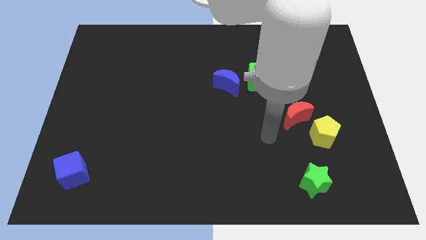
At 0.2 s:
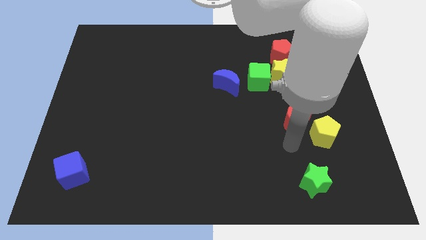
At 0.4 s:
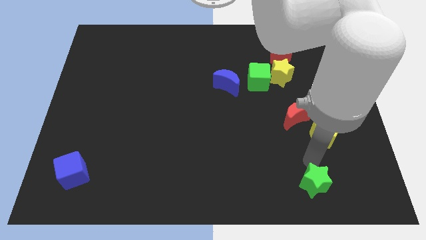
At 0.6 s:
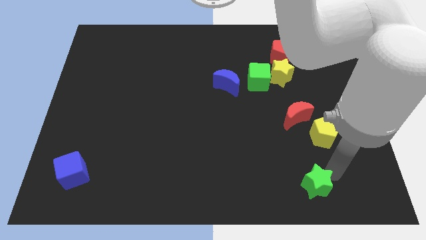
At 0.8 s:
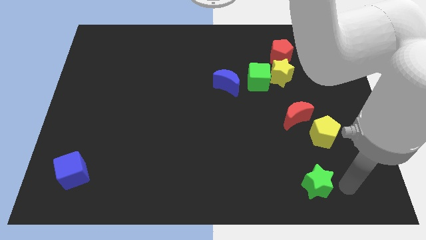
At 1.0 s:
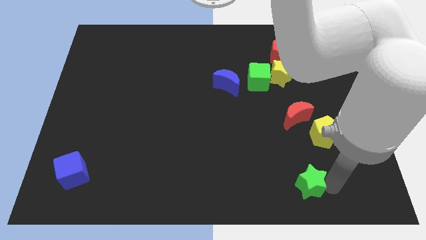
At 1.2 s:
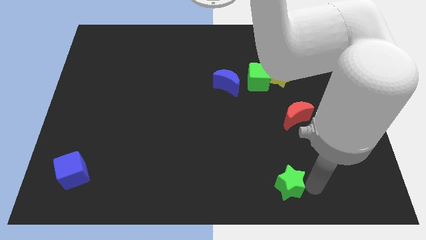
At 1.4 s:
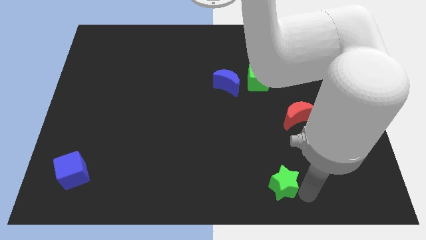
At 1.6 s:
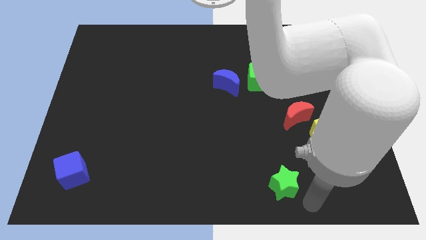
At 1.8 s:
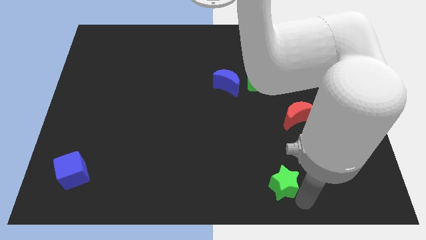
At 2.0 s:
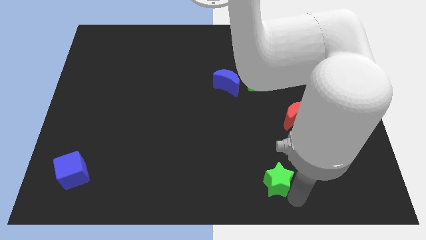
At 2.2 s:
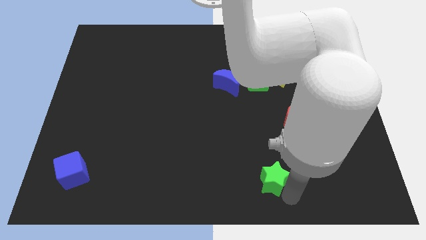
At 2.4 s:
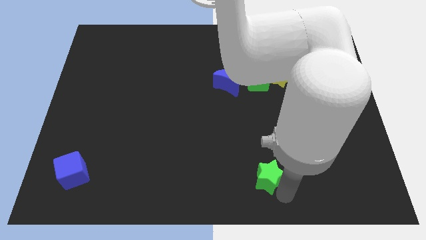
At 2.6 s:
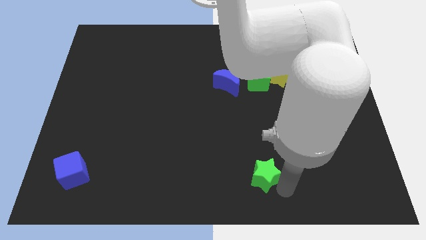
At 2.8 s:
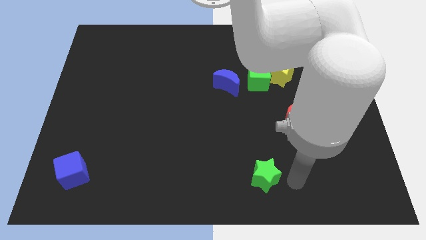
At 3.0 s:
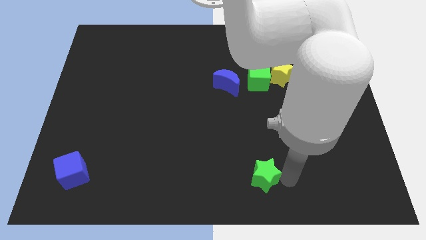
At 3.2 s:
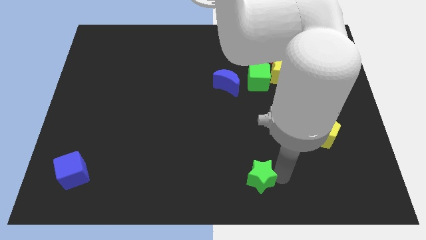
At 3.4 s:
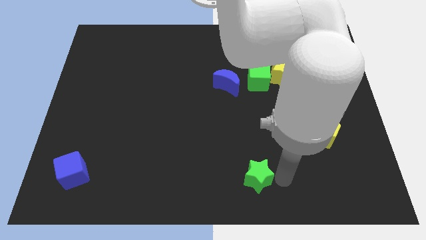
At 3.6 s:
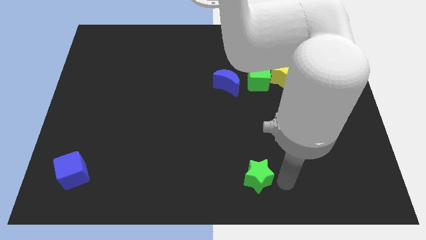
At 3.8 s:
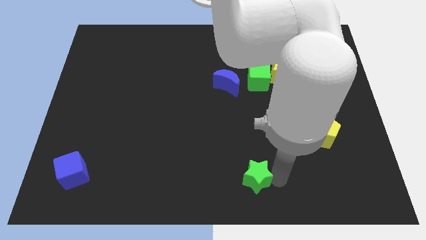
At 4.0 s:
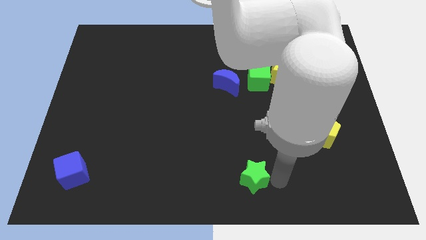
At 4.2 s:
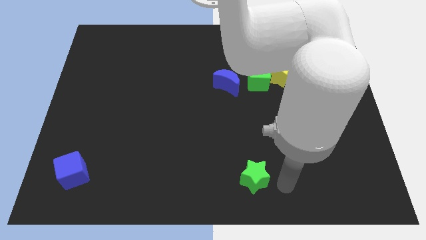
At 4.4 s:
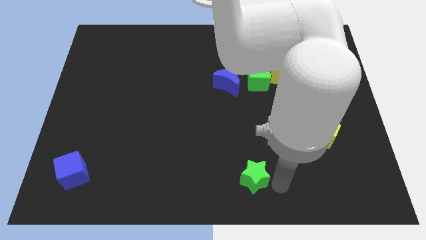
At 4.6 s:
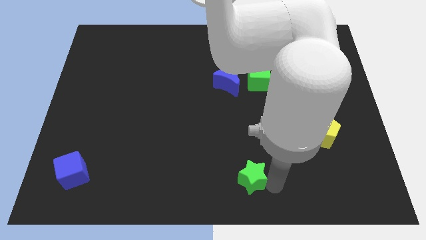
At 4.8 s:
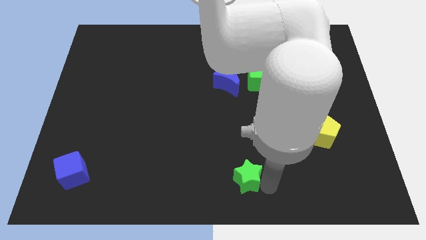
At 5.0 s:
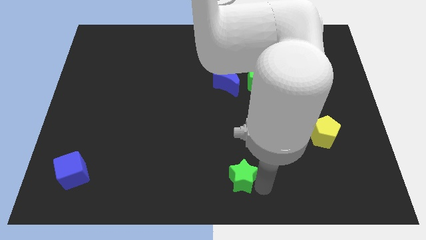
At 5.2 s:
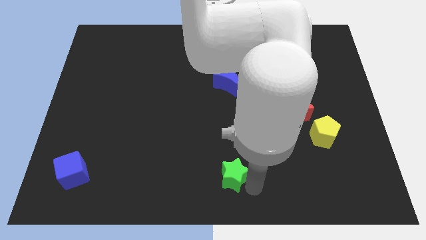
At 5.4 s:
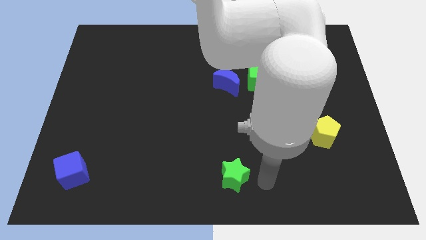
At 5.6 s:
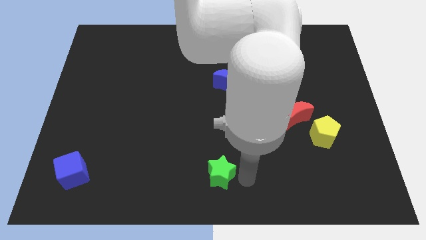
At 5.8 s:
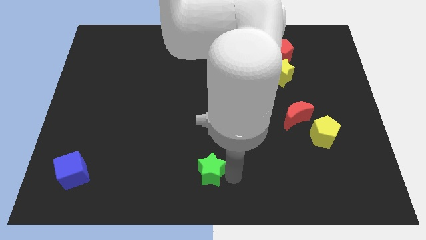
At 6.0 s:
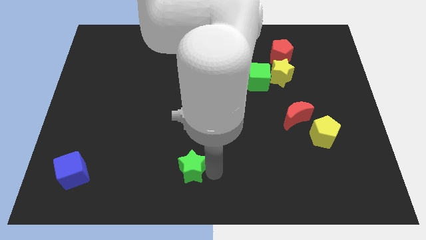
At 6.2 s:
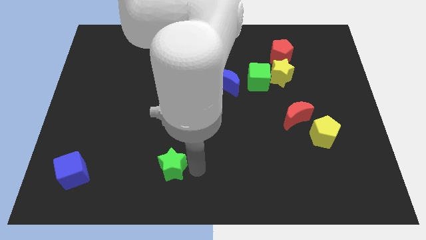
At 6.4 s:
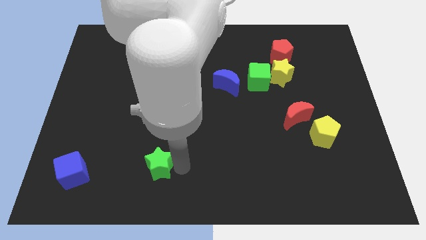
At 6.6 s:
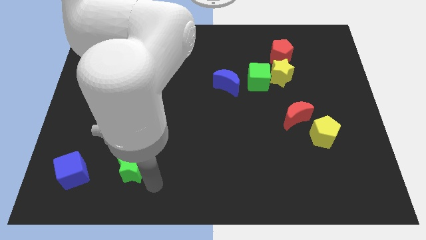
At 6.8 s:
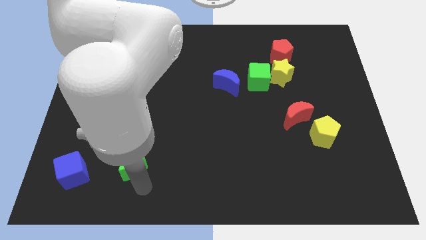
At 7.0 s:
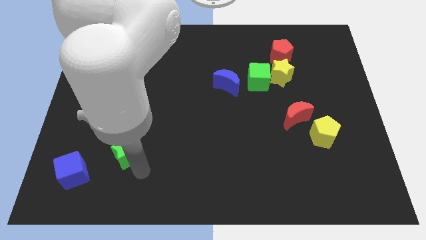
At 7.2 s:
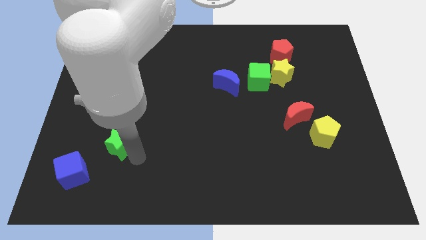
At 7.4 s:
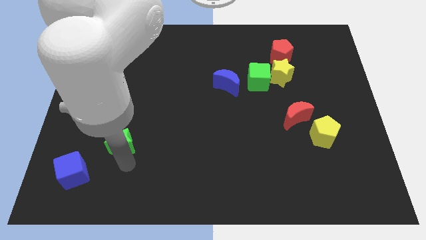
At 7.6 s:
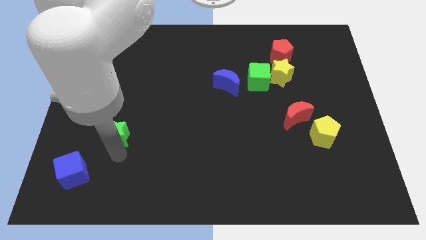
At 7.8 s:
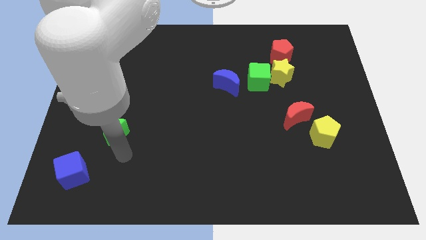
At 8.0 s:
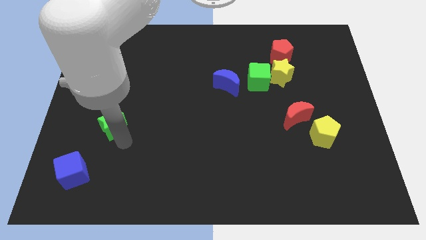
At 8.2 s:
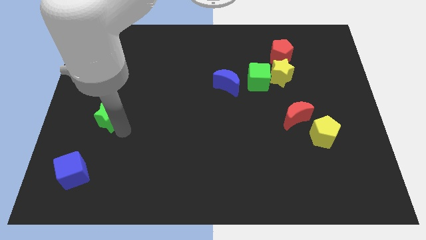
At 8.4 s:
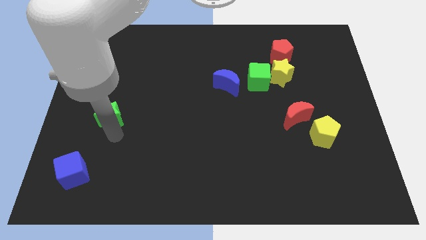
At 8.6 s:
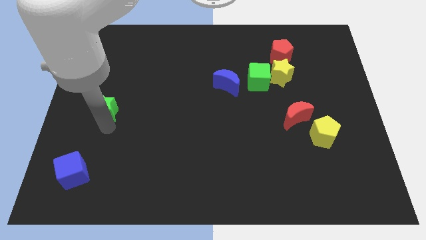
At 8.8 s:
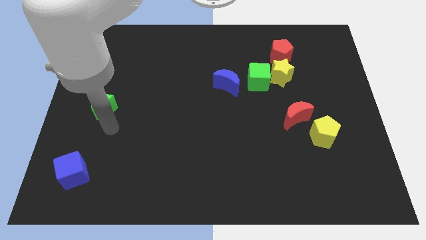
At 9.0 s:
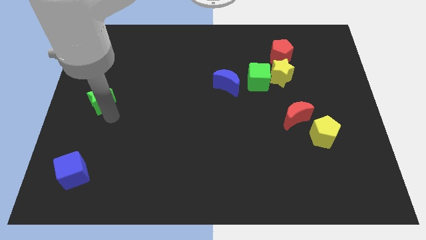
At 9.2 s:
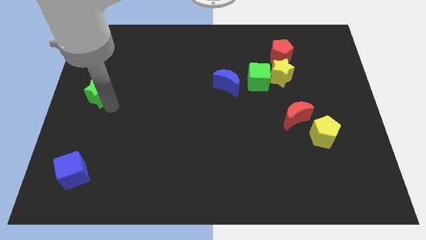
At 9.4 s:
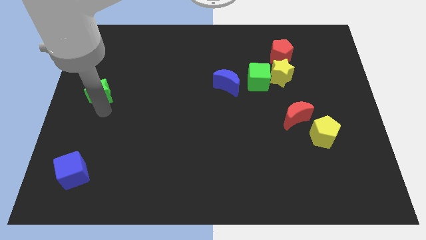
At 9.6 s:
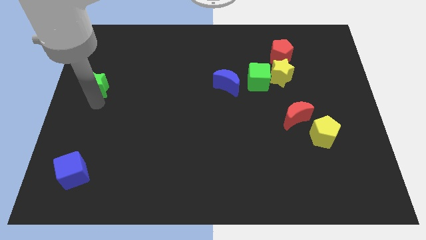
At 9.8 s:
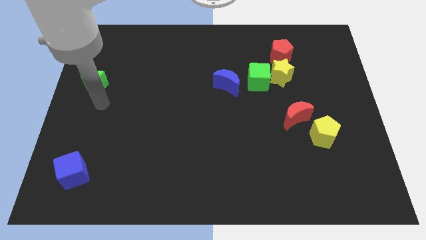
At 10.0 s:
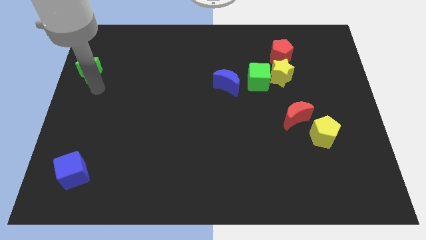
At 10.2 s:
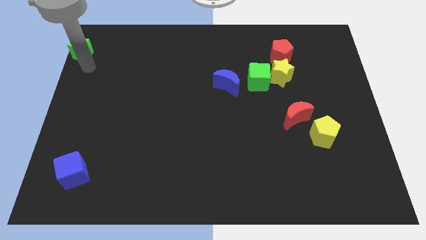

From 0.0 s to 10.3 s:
move the green star to the top left

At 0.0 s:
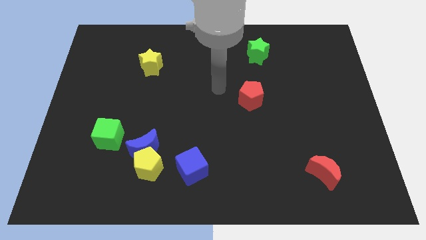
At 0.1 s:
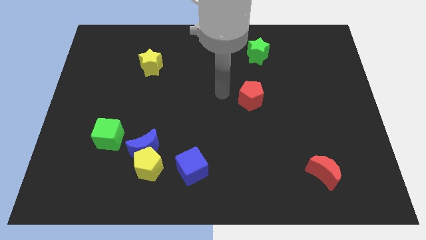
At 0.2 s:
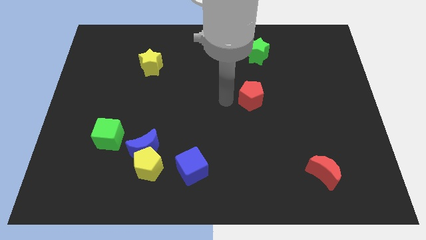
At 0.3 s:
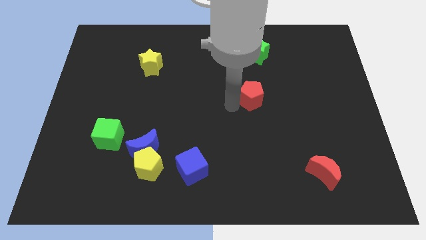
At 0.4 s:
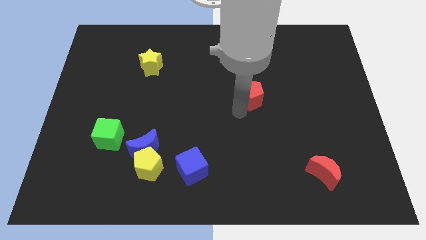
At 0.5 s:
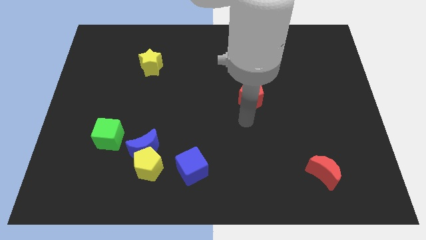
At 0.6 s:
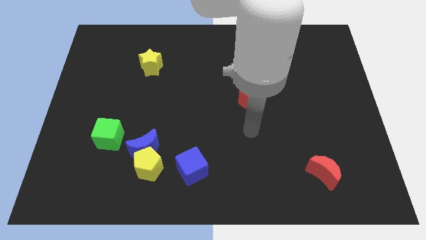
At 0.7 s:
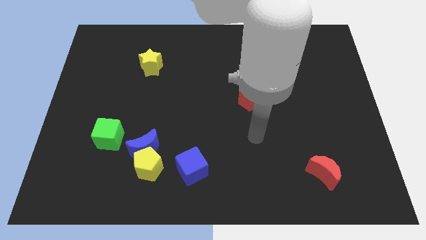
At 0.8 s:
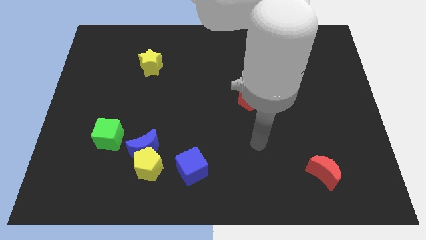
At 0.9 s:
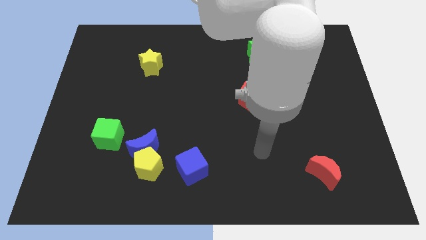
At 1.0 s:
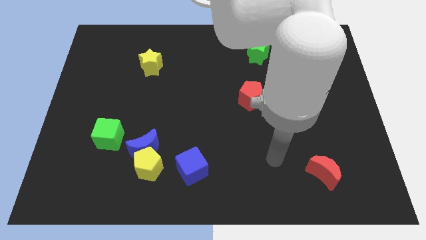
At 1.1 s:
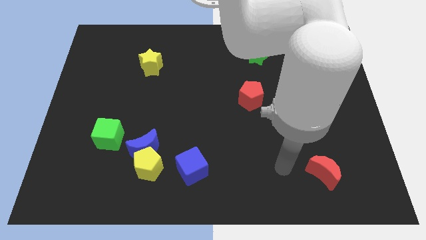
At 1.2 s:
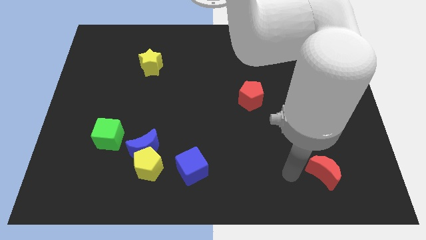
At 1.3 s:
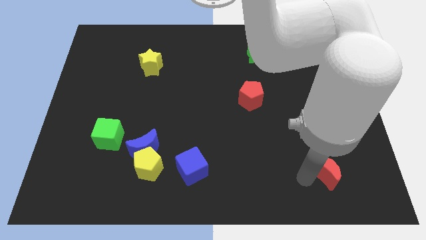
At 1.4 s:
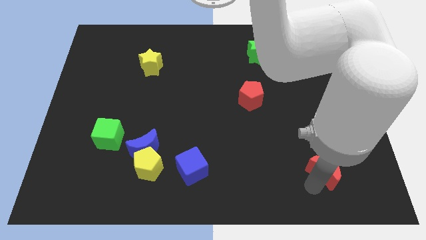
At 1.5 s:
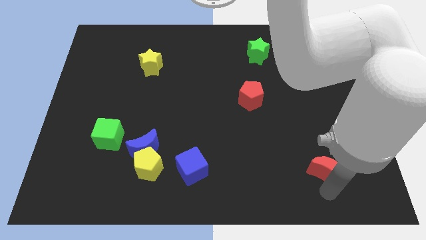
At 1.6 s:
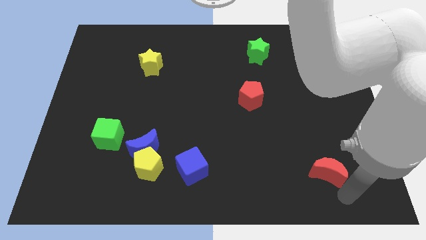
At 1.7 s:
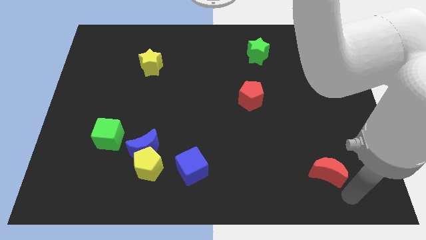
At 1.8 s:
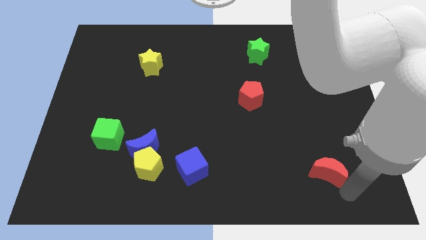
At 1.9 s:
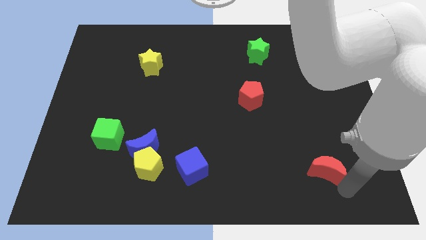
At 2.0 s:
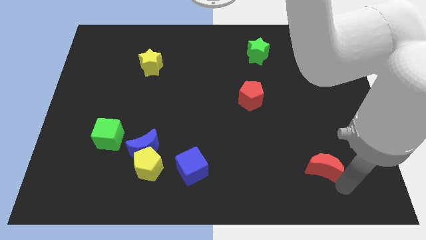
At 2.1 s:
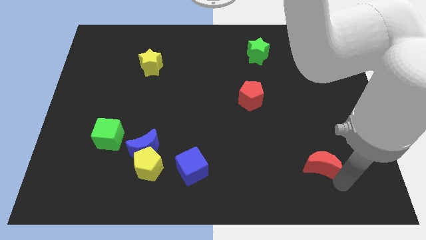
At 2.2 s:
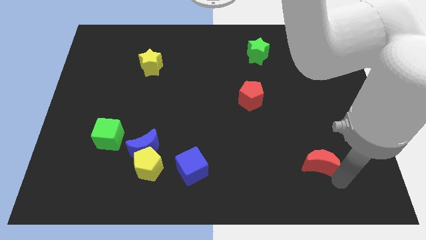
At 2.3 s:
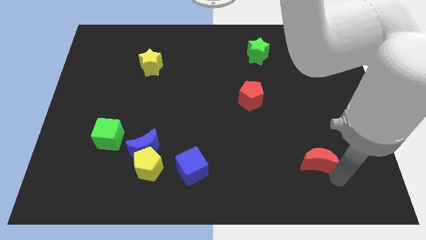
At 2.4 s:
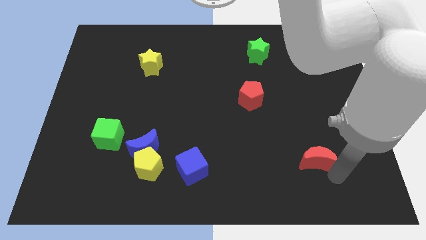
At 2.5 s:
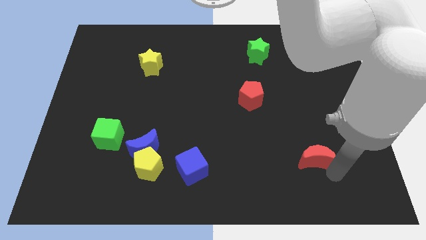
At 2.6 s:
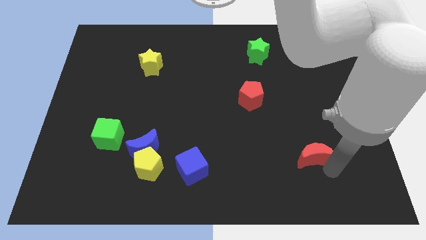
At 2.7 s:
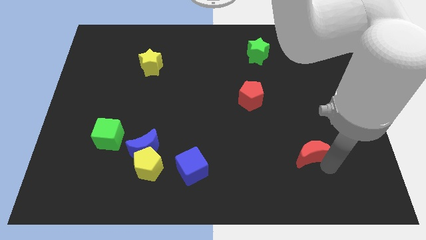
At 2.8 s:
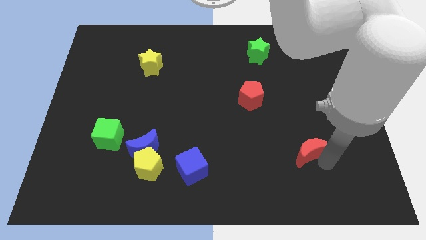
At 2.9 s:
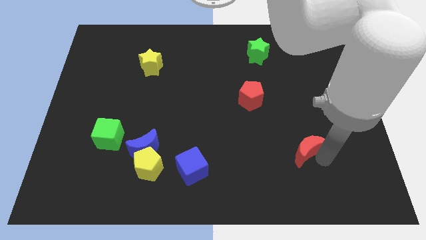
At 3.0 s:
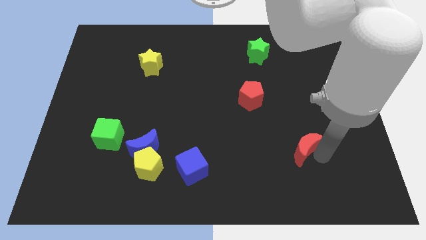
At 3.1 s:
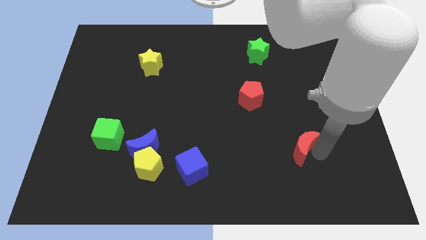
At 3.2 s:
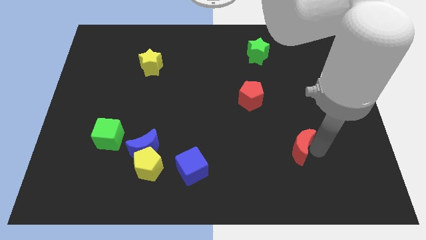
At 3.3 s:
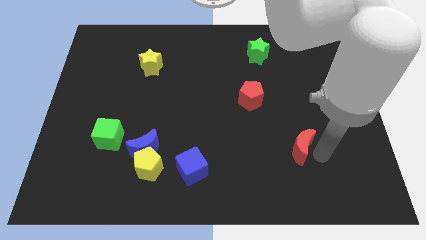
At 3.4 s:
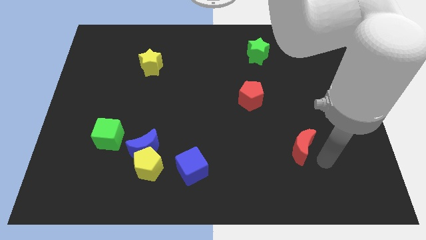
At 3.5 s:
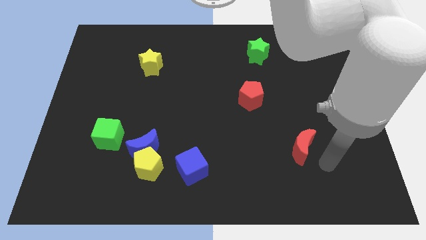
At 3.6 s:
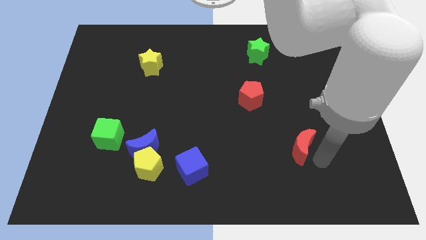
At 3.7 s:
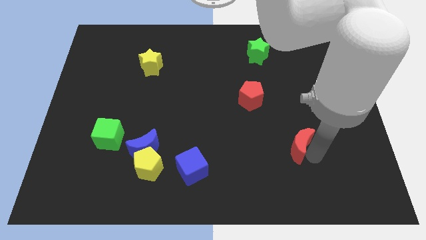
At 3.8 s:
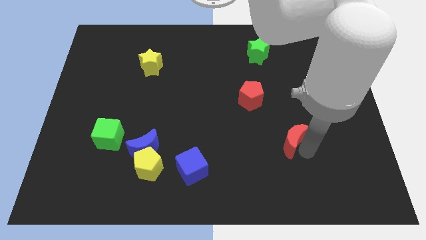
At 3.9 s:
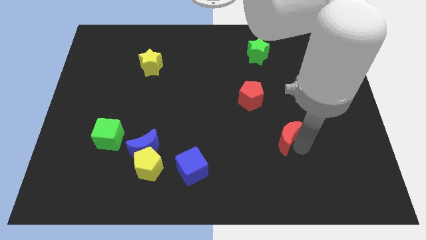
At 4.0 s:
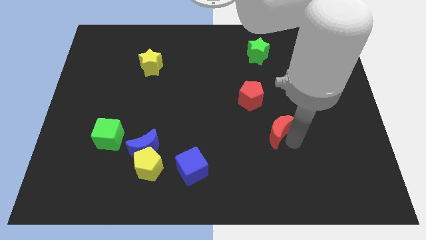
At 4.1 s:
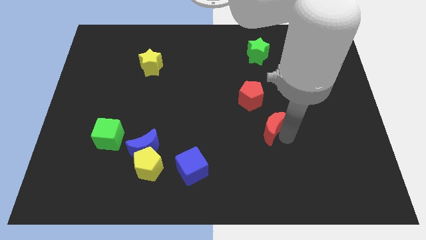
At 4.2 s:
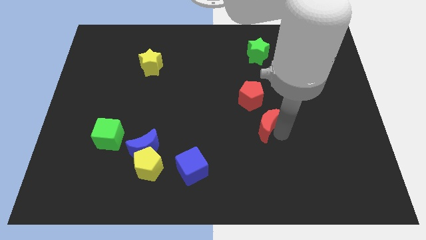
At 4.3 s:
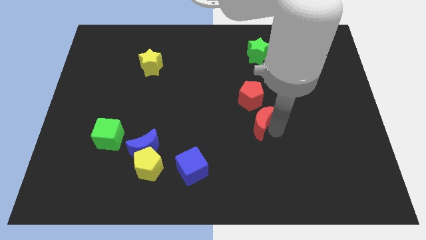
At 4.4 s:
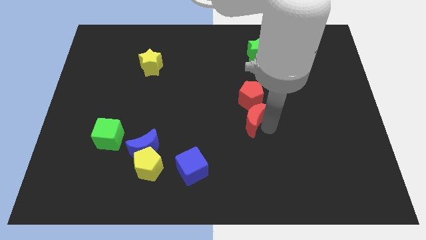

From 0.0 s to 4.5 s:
slide the red moon to the center of the board
